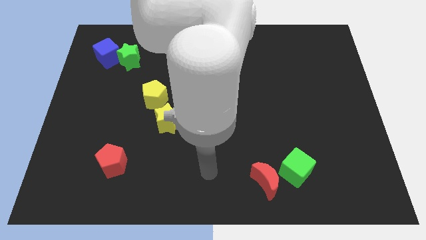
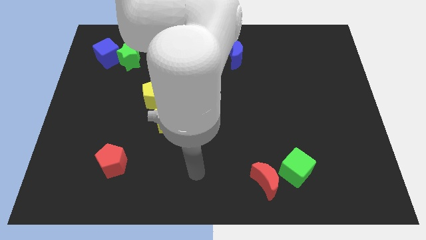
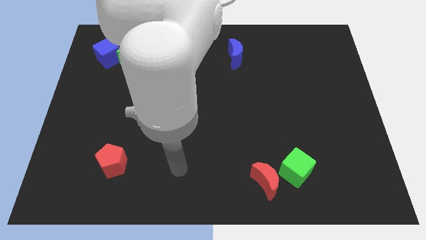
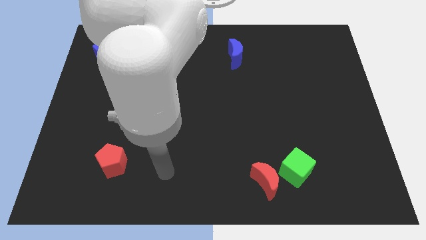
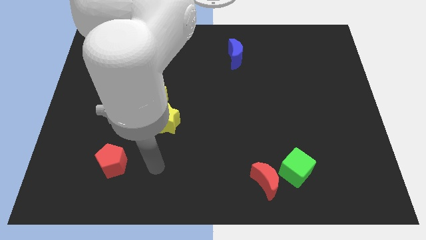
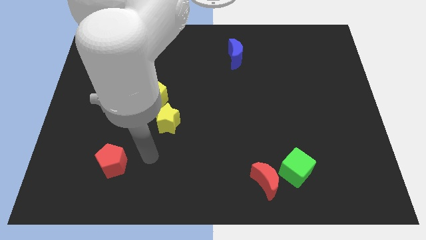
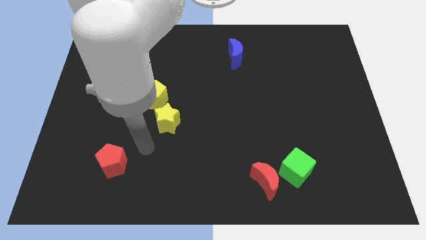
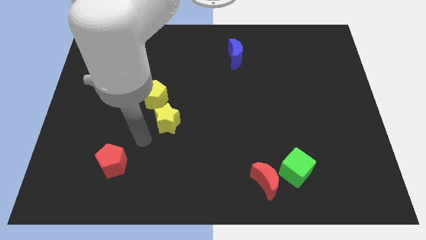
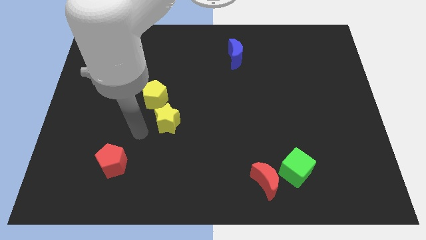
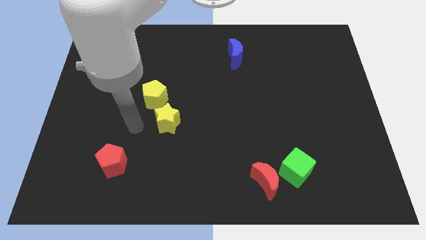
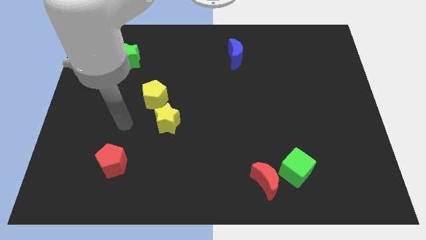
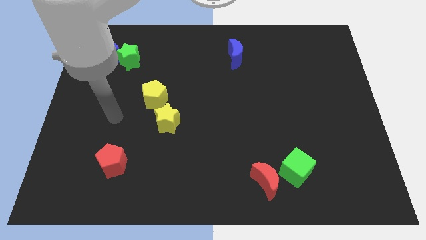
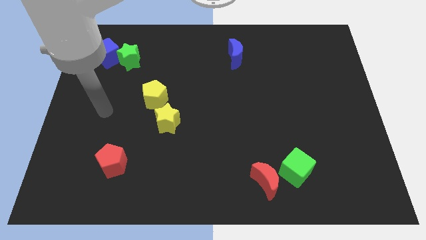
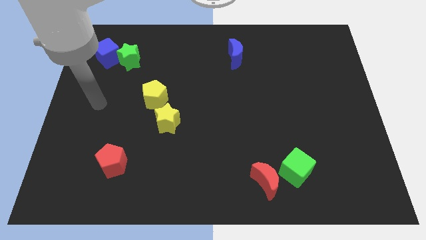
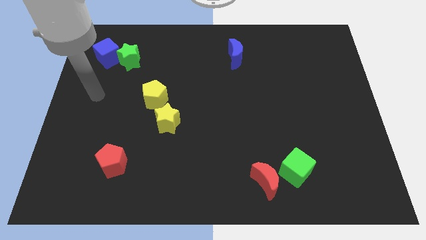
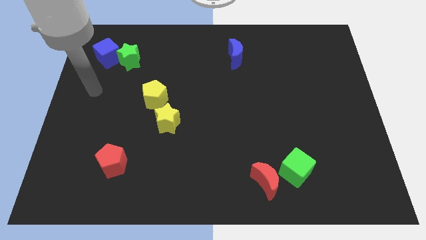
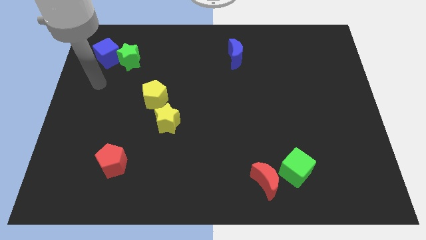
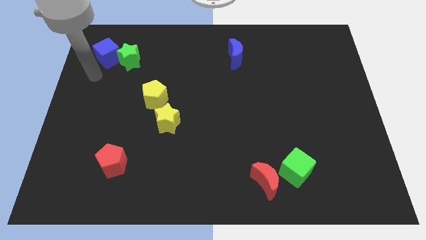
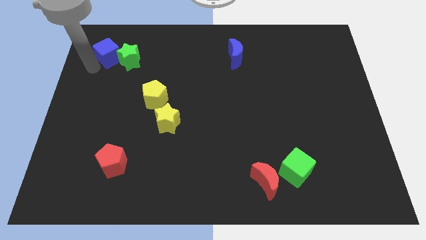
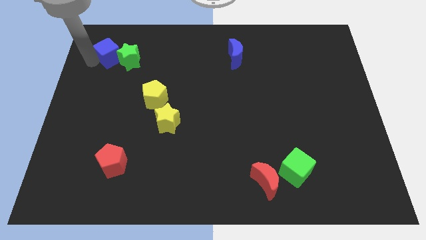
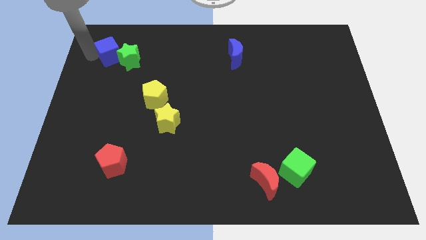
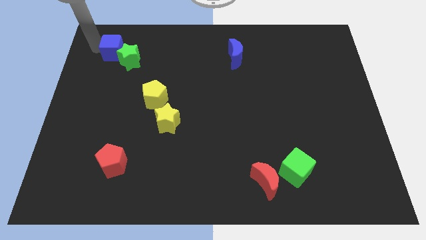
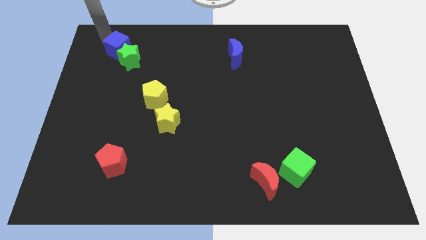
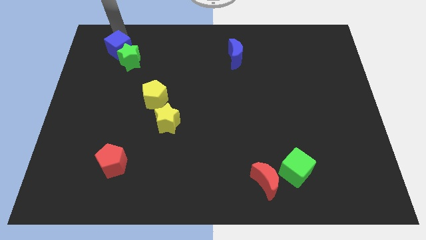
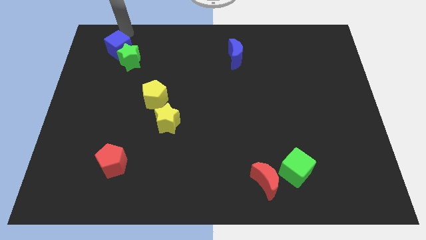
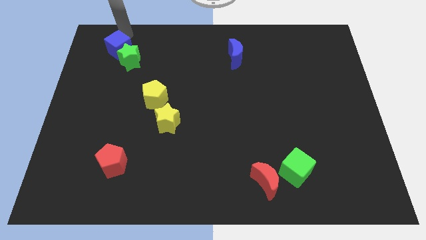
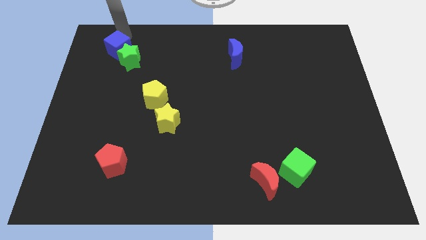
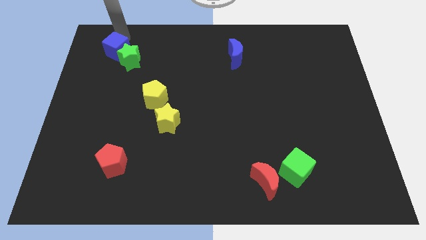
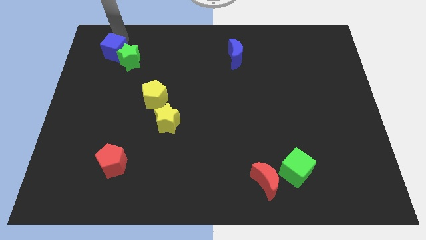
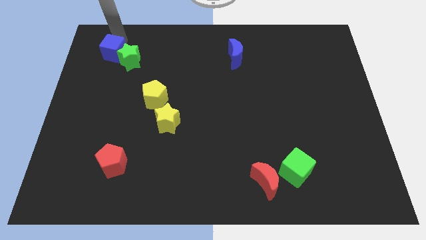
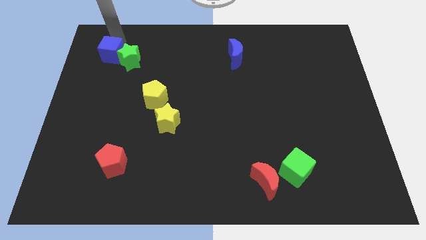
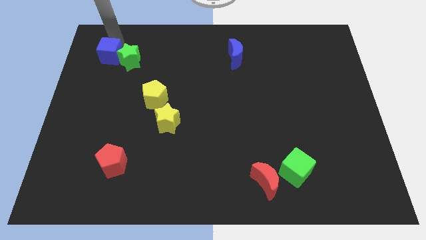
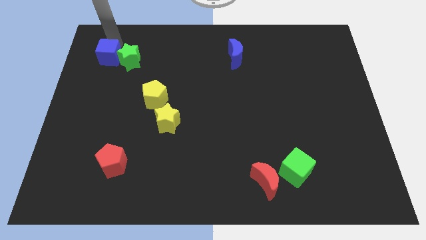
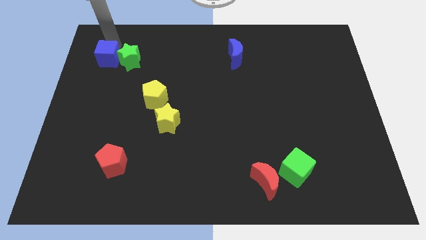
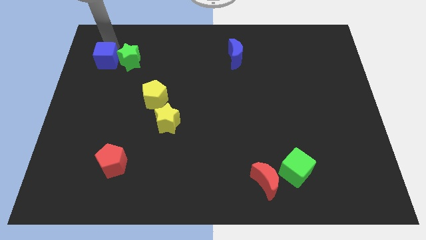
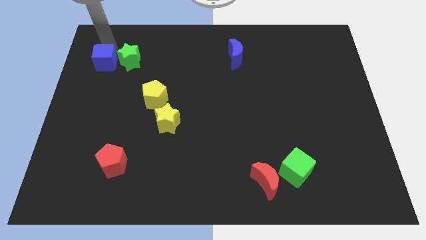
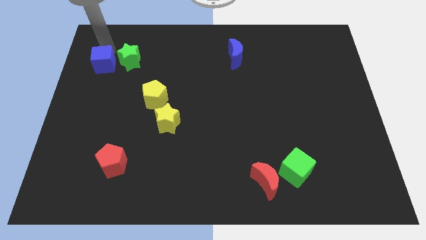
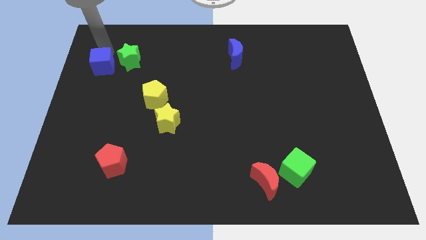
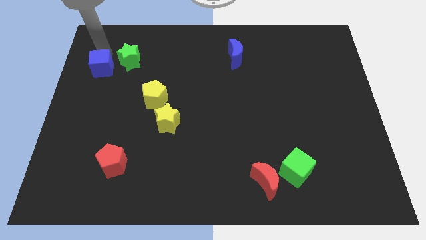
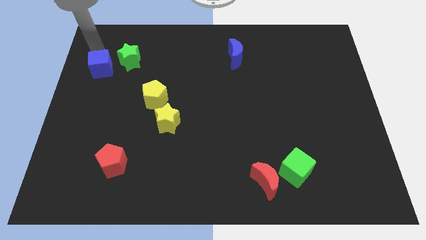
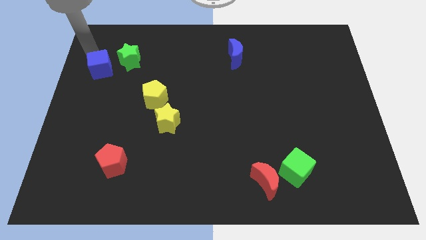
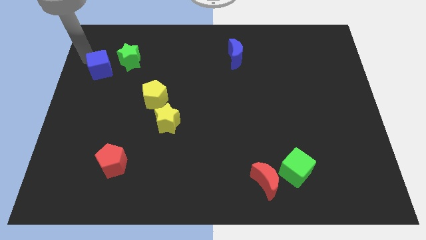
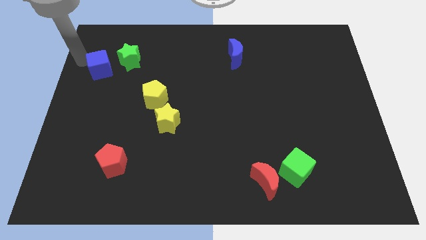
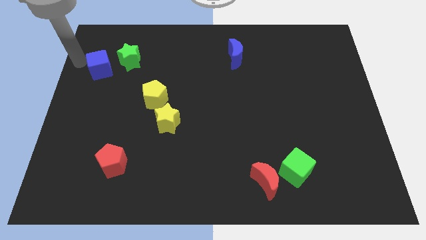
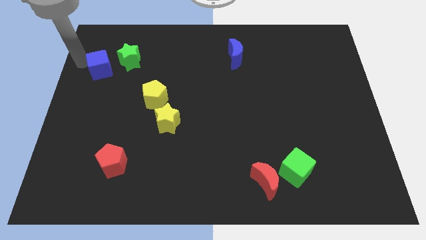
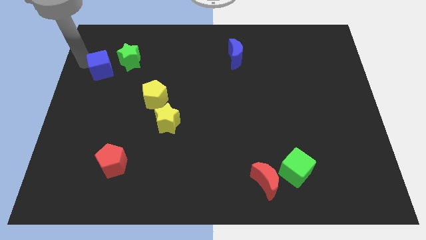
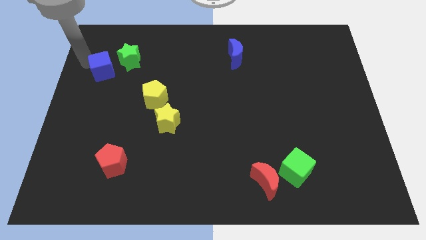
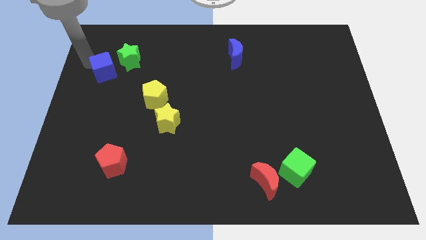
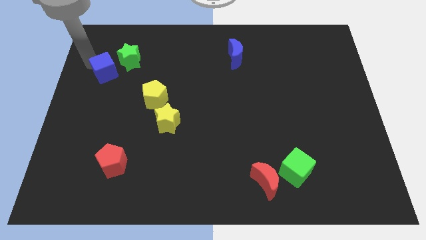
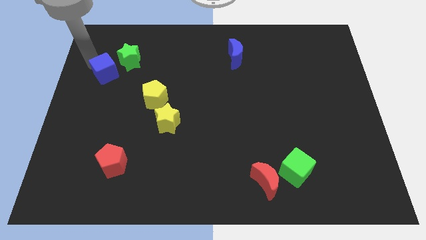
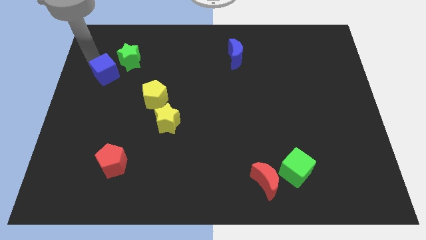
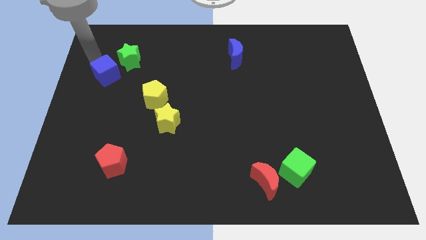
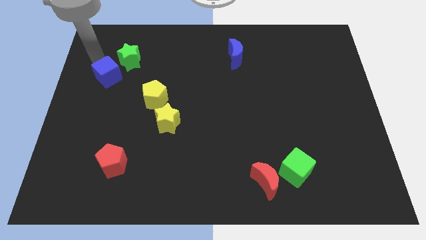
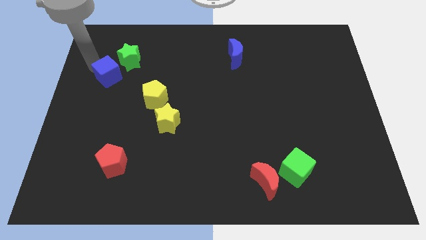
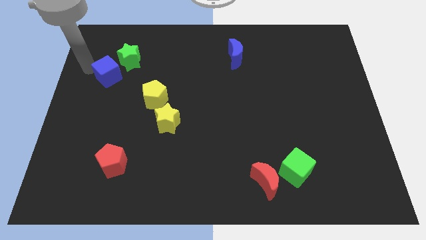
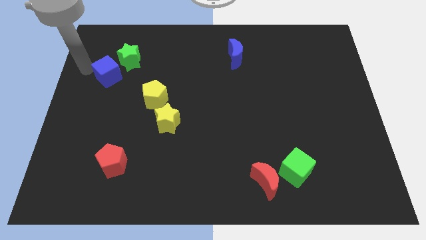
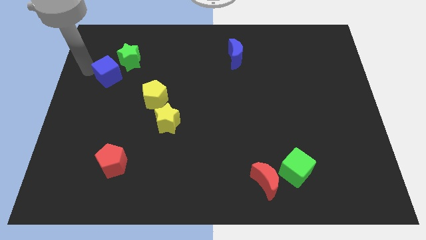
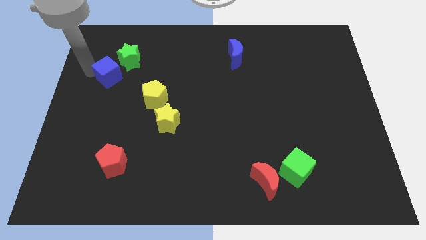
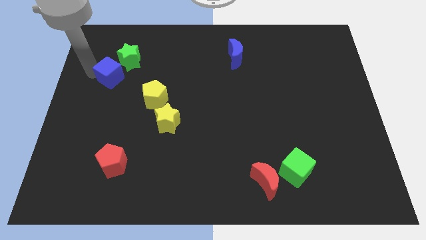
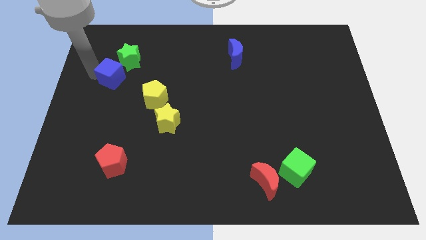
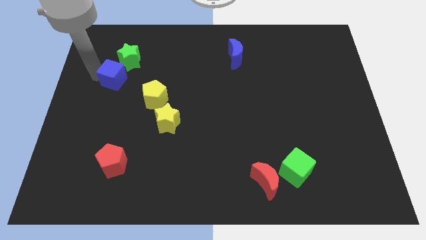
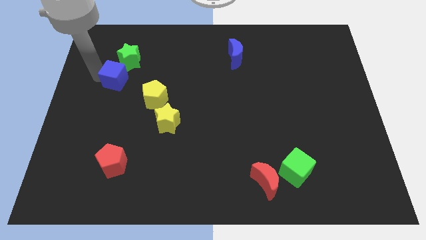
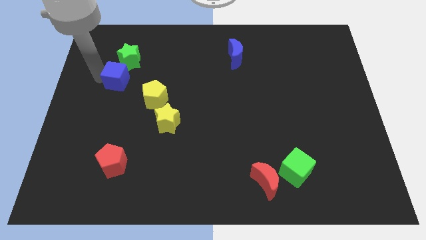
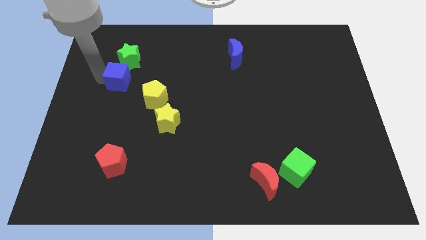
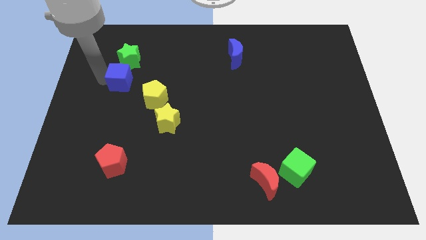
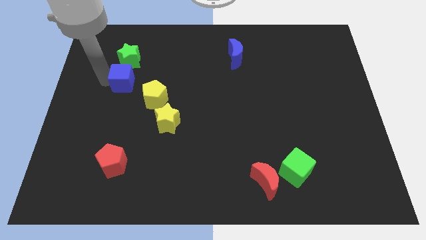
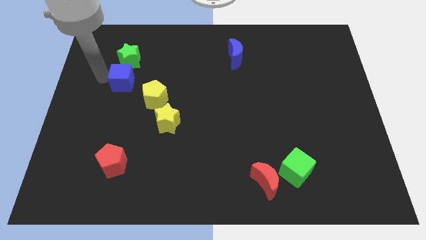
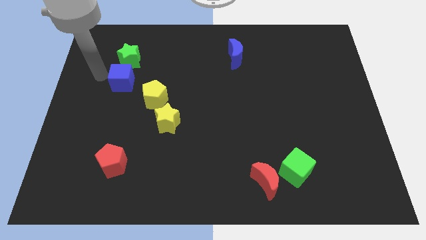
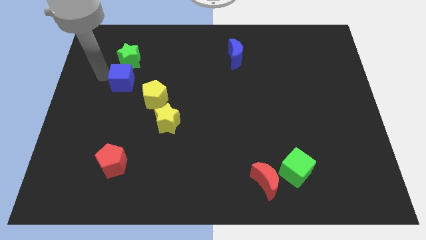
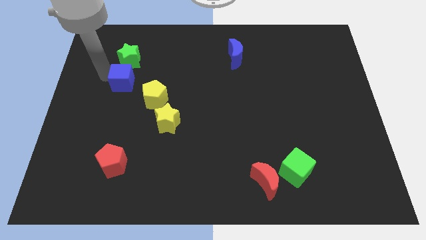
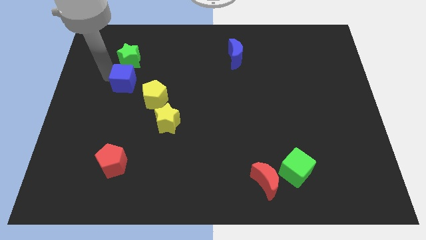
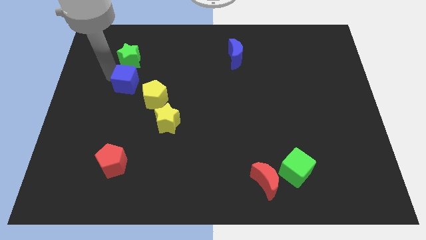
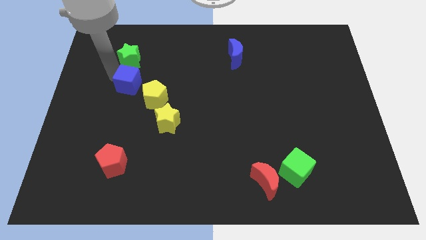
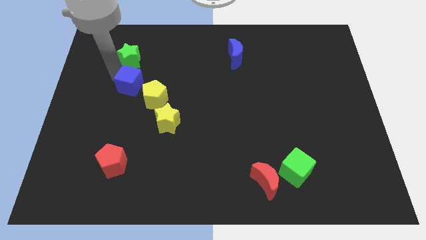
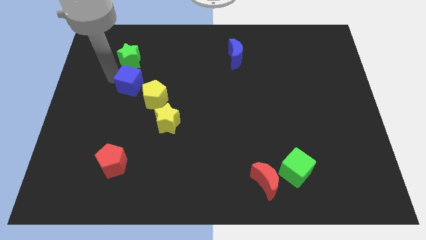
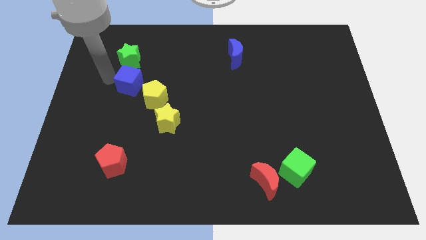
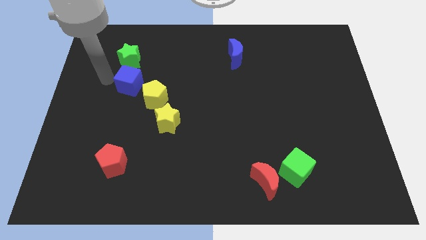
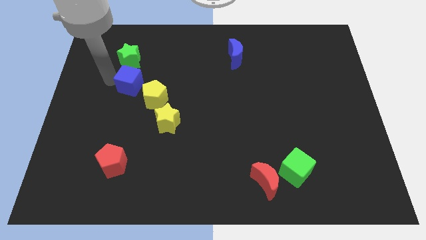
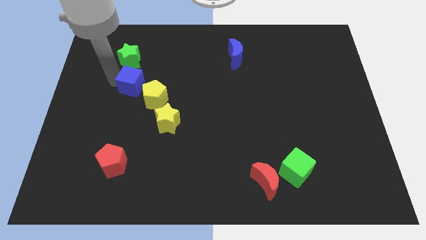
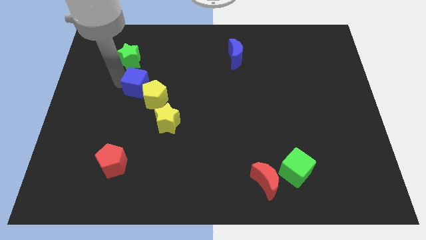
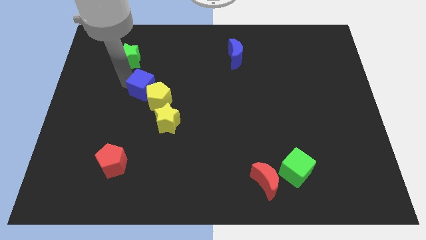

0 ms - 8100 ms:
slide the blue cube close to the yellow pentagon
